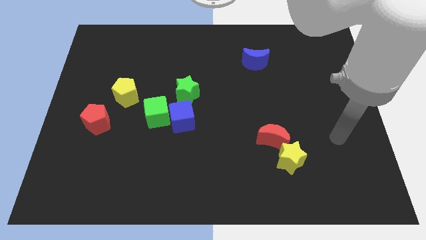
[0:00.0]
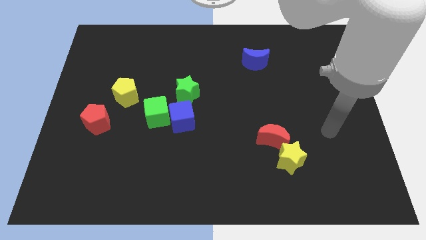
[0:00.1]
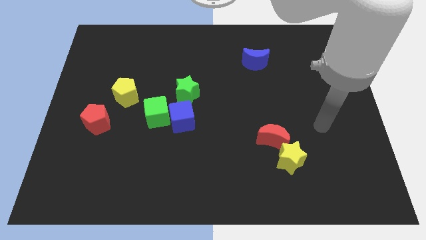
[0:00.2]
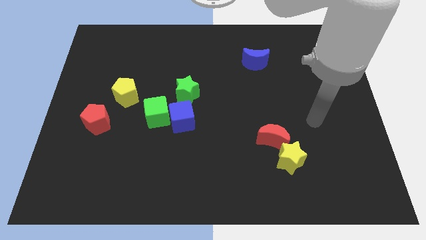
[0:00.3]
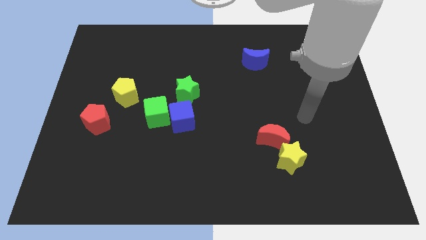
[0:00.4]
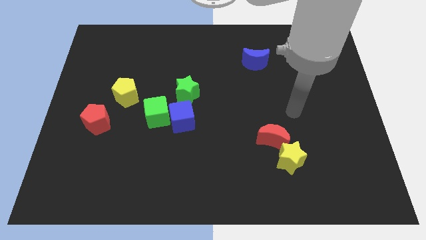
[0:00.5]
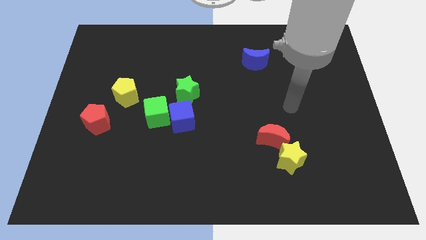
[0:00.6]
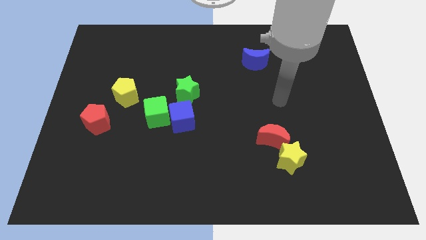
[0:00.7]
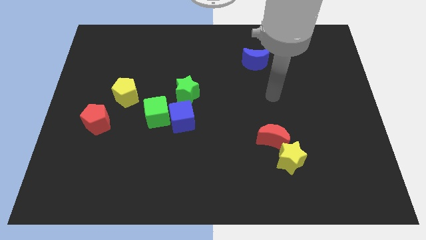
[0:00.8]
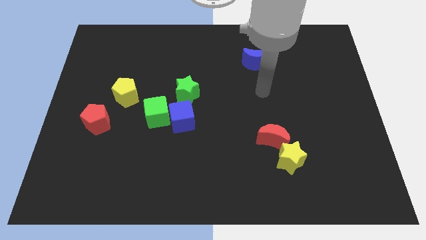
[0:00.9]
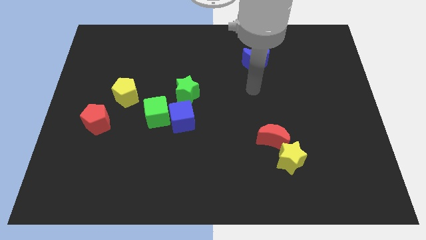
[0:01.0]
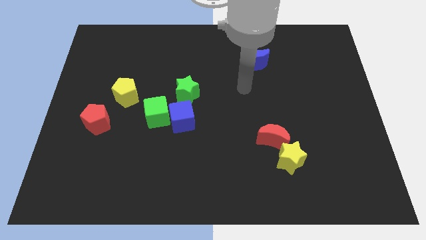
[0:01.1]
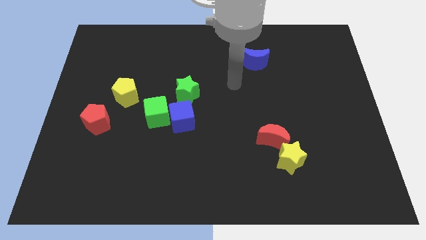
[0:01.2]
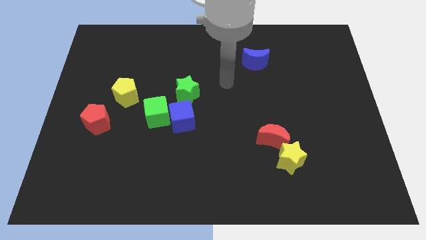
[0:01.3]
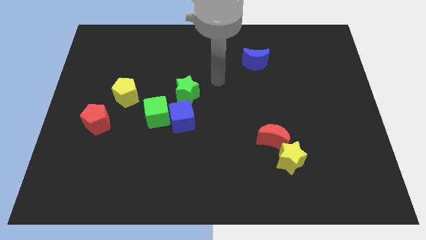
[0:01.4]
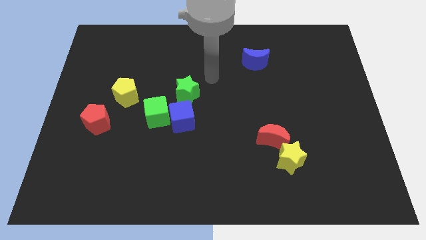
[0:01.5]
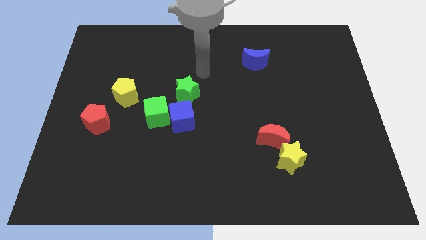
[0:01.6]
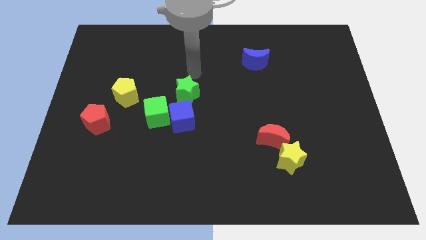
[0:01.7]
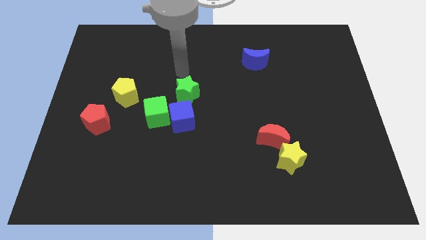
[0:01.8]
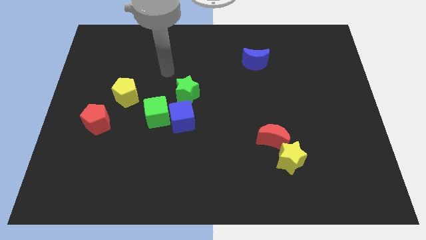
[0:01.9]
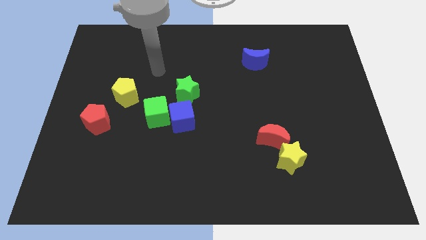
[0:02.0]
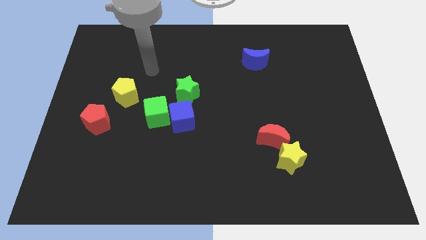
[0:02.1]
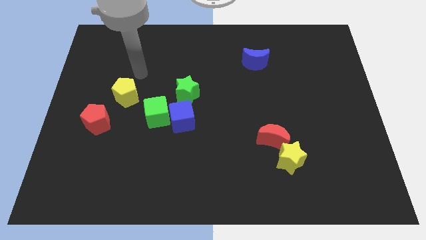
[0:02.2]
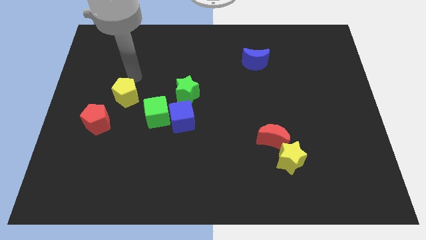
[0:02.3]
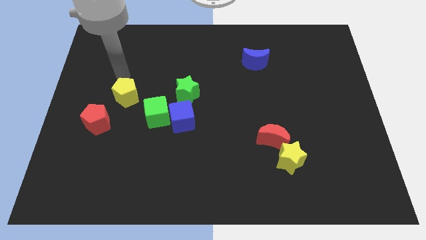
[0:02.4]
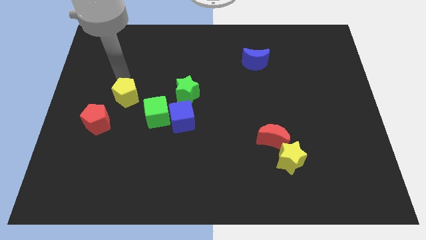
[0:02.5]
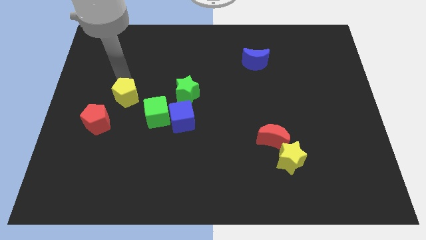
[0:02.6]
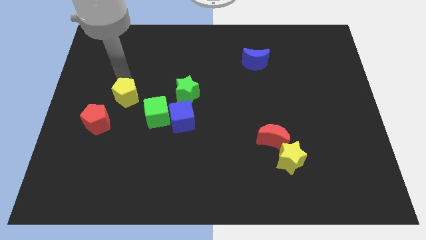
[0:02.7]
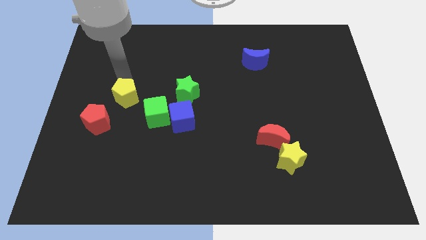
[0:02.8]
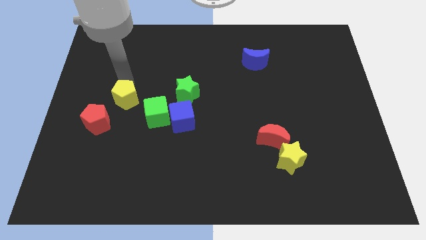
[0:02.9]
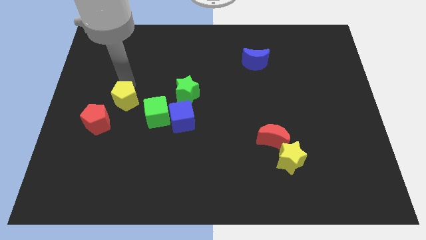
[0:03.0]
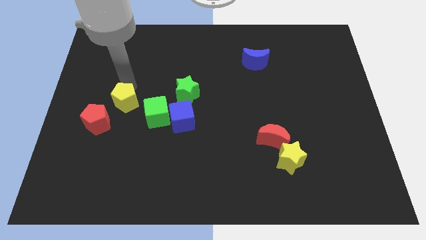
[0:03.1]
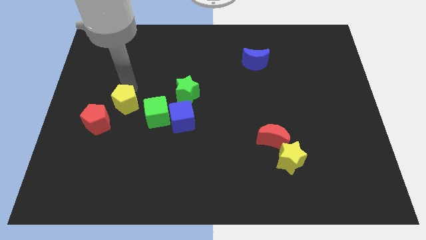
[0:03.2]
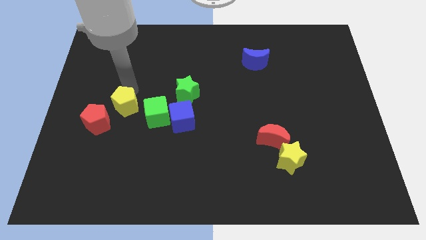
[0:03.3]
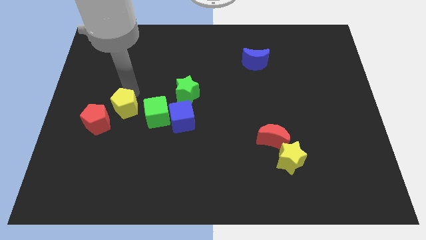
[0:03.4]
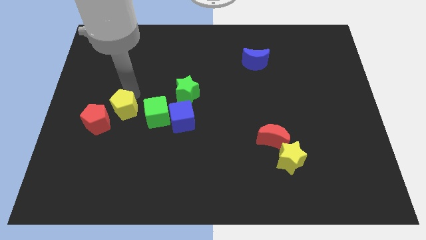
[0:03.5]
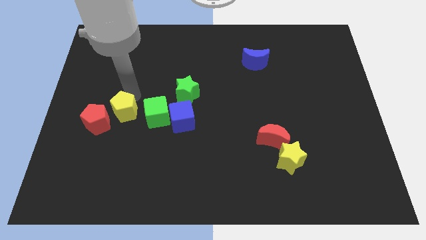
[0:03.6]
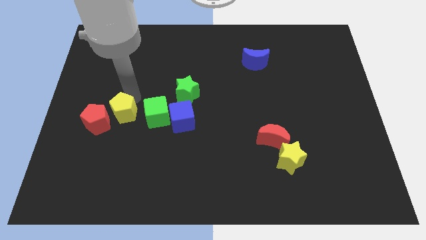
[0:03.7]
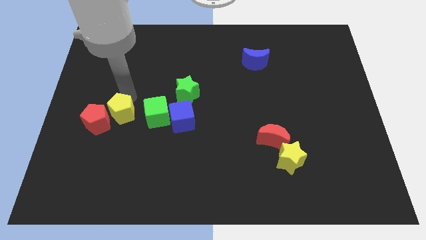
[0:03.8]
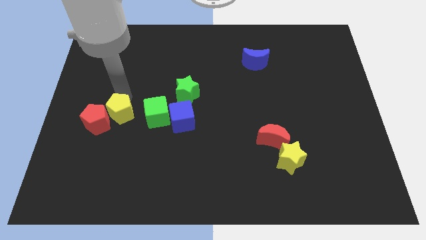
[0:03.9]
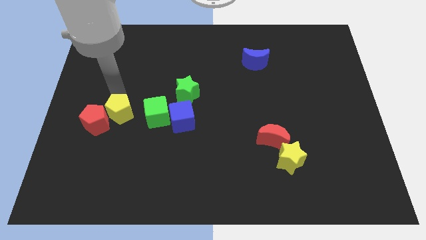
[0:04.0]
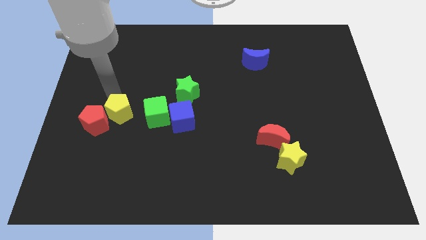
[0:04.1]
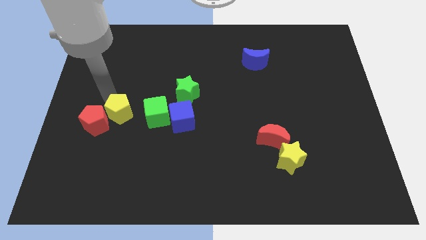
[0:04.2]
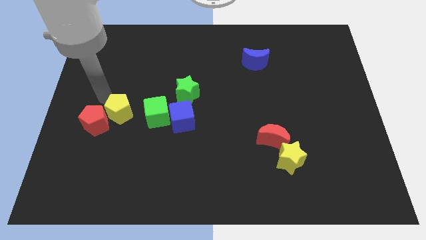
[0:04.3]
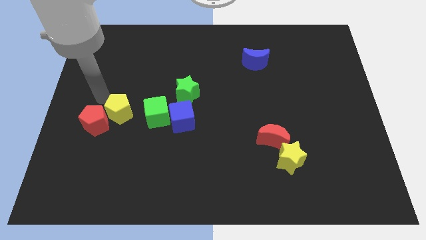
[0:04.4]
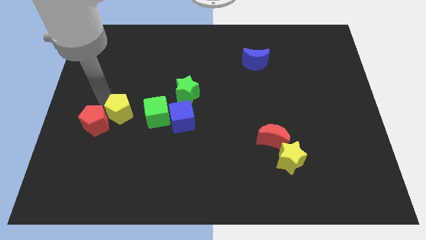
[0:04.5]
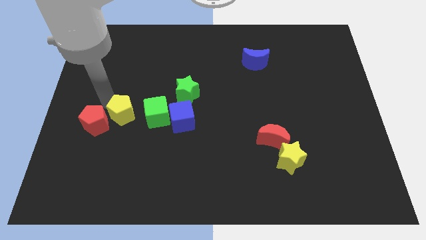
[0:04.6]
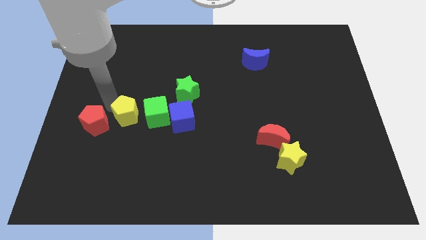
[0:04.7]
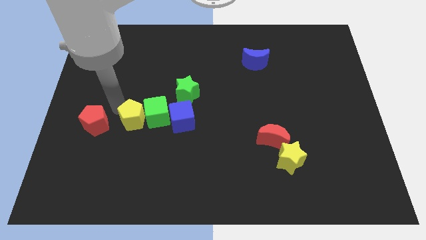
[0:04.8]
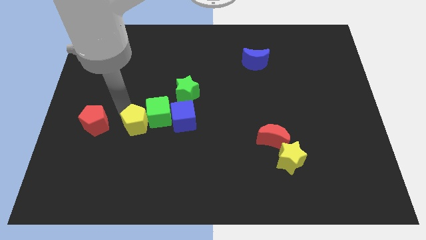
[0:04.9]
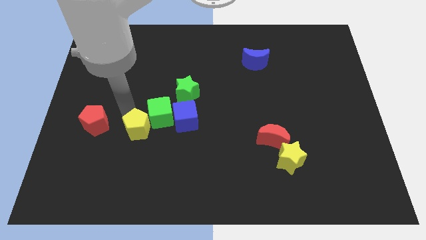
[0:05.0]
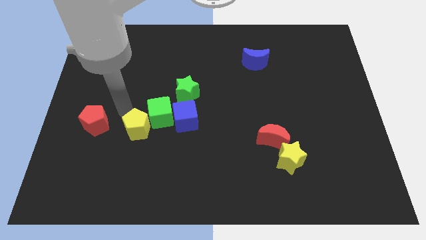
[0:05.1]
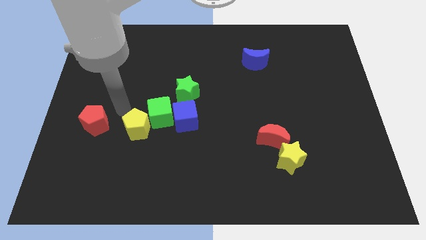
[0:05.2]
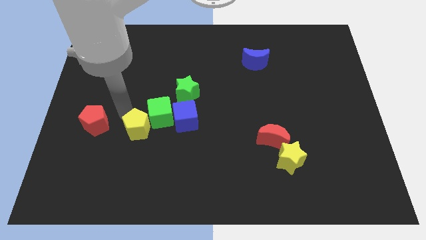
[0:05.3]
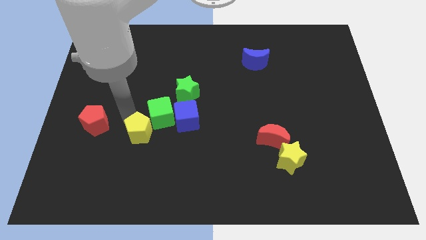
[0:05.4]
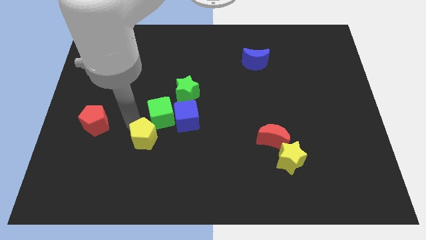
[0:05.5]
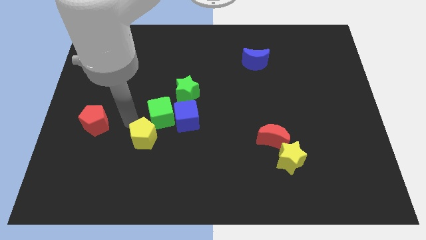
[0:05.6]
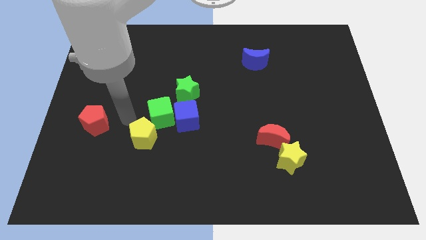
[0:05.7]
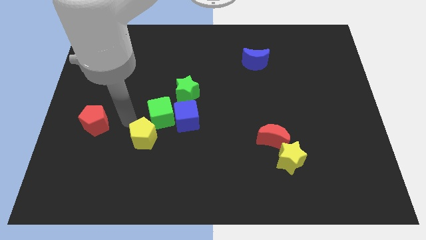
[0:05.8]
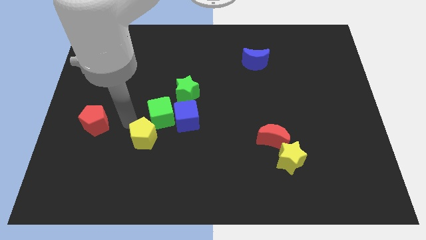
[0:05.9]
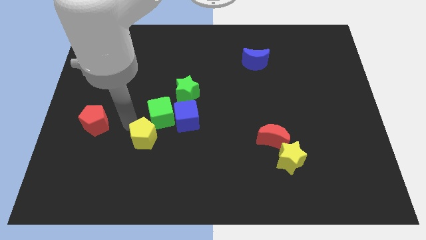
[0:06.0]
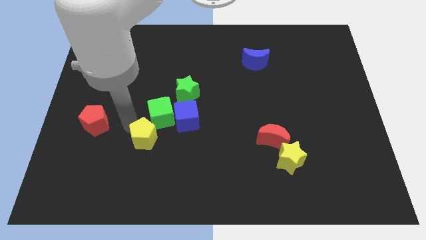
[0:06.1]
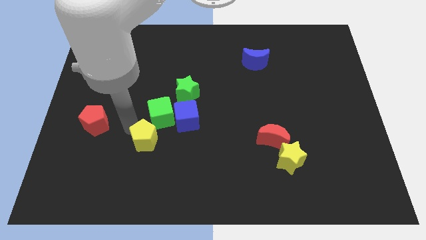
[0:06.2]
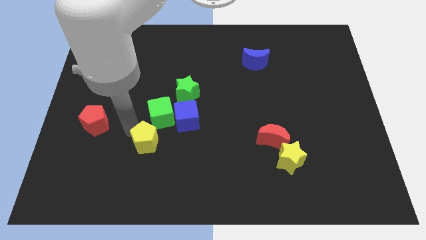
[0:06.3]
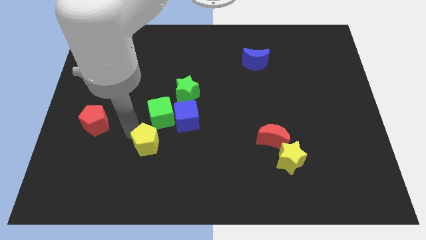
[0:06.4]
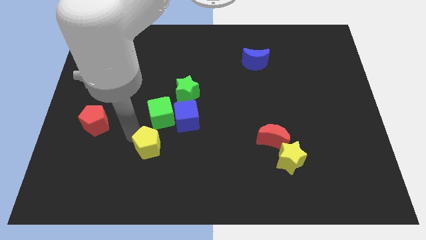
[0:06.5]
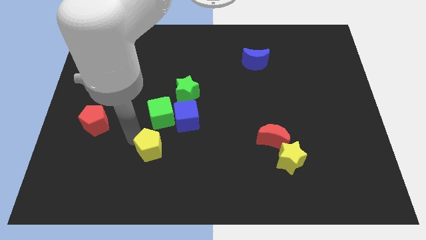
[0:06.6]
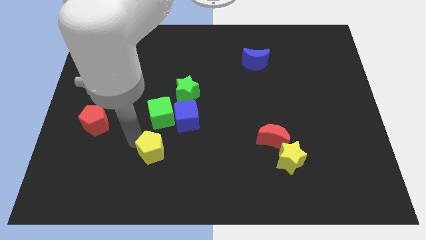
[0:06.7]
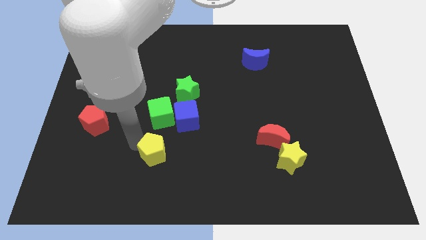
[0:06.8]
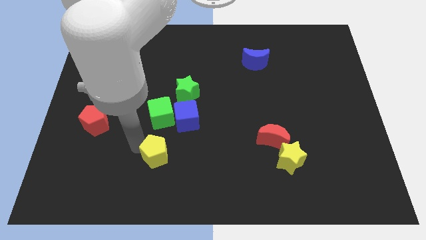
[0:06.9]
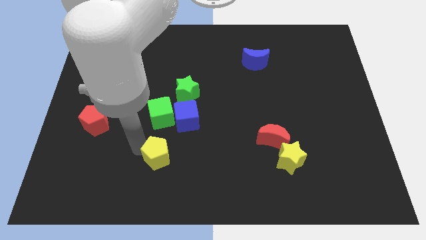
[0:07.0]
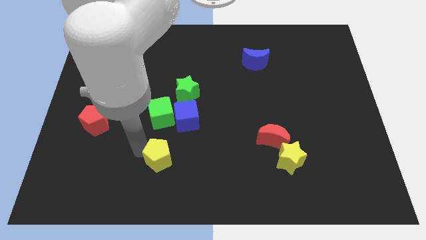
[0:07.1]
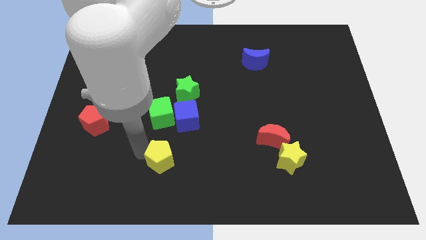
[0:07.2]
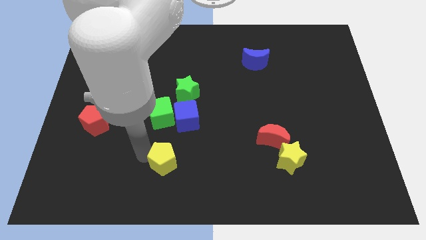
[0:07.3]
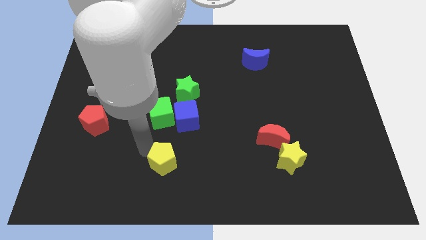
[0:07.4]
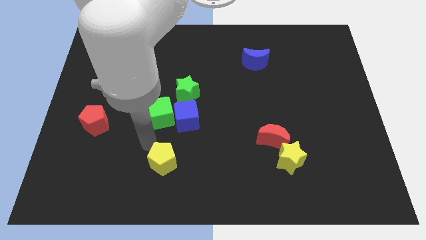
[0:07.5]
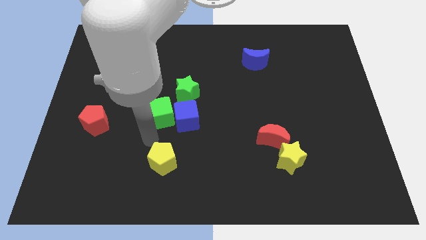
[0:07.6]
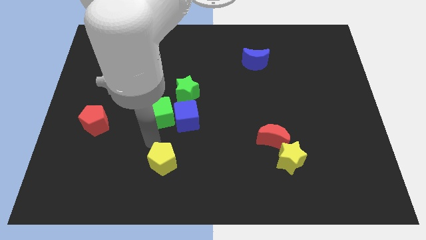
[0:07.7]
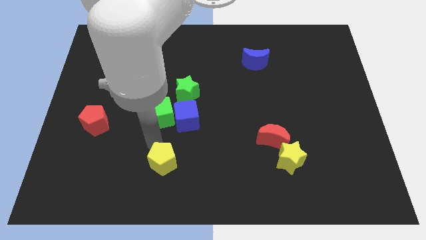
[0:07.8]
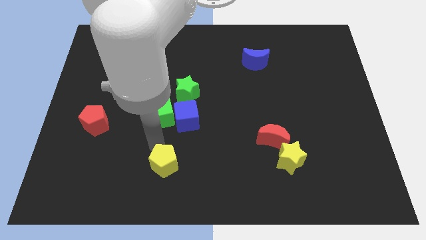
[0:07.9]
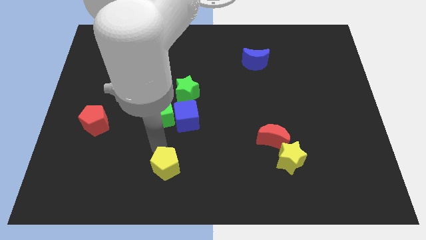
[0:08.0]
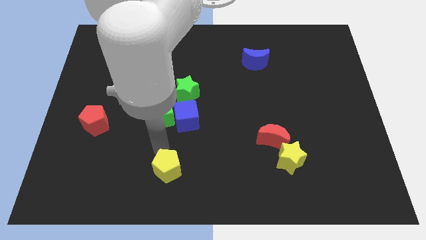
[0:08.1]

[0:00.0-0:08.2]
move the yellow pentagon to the bottom side
